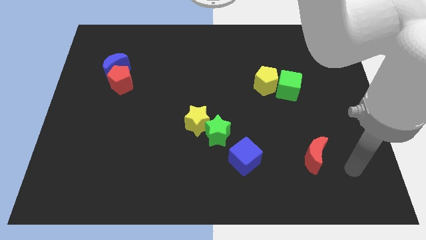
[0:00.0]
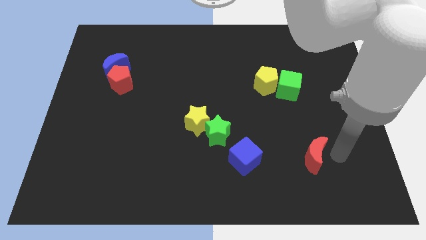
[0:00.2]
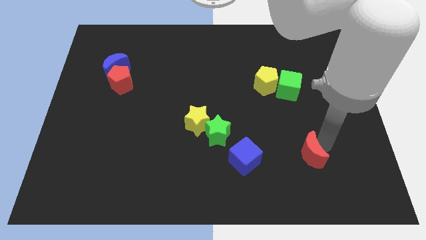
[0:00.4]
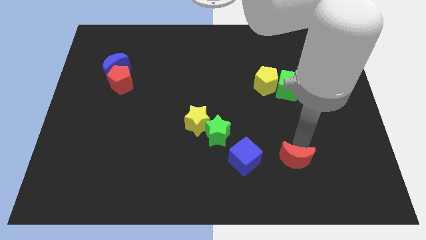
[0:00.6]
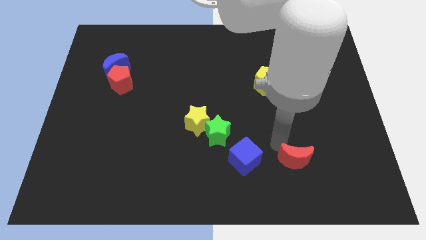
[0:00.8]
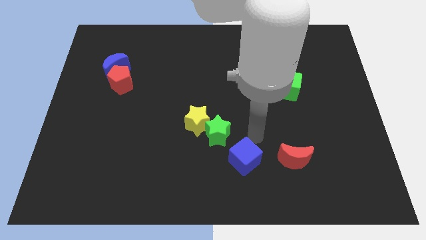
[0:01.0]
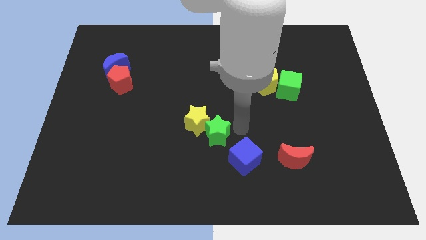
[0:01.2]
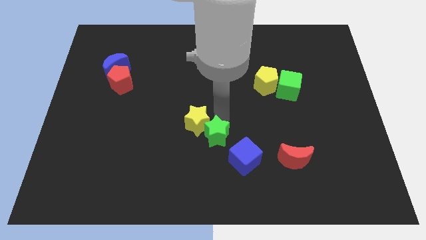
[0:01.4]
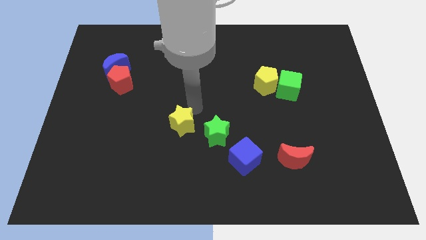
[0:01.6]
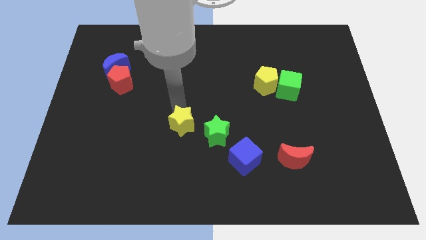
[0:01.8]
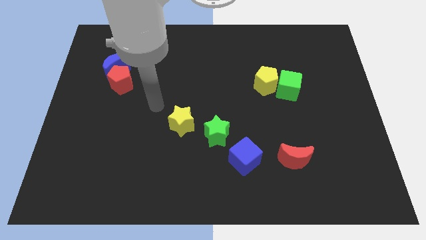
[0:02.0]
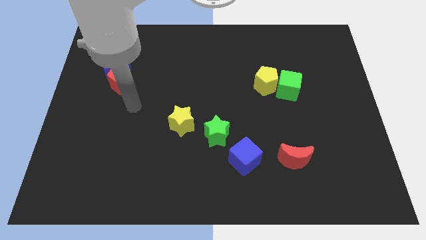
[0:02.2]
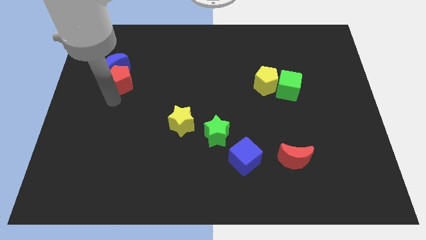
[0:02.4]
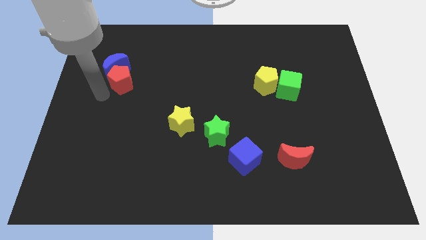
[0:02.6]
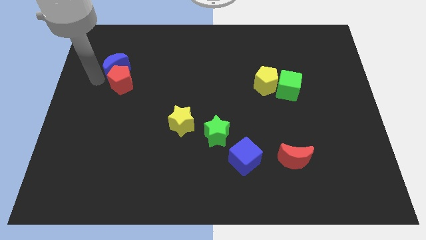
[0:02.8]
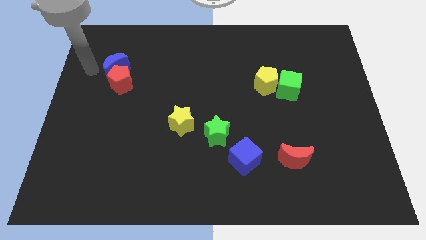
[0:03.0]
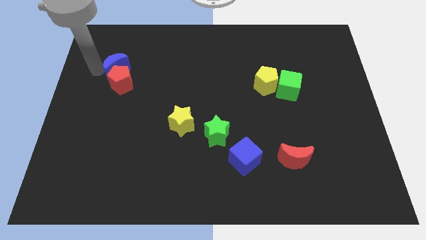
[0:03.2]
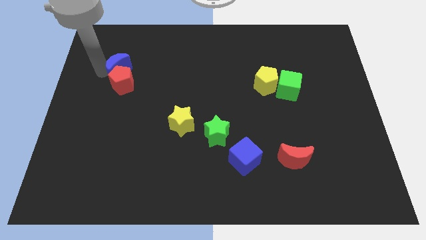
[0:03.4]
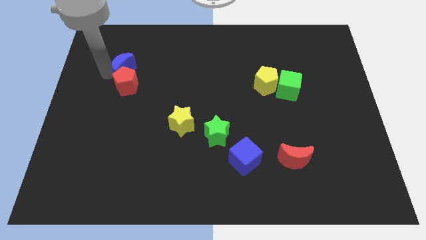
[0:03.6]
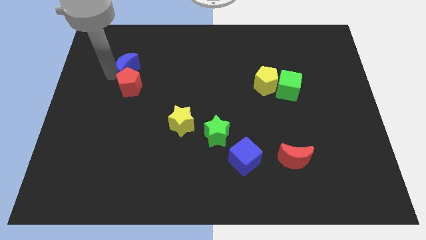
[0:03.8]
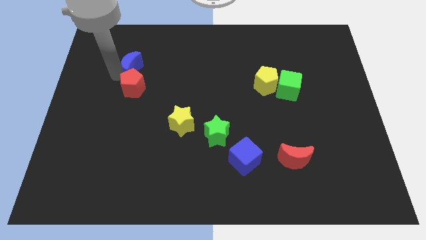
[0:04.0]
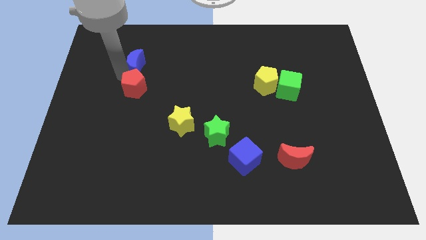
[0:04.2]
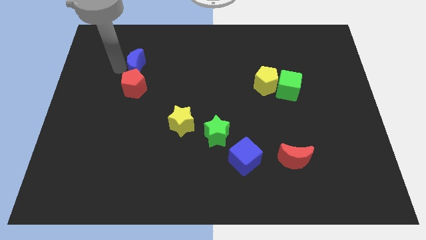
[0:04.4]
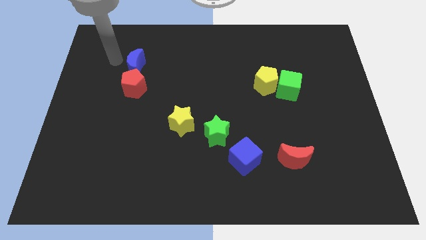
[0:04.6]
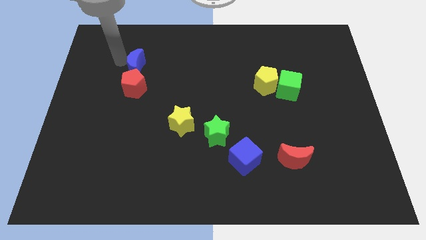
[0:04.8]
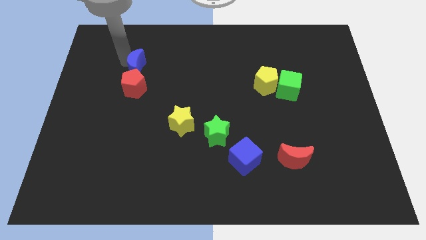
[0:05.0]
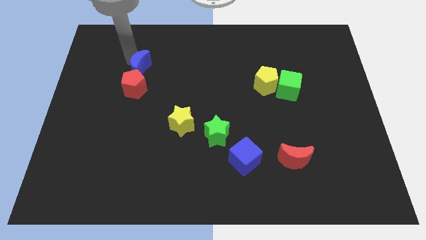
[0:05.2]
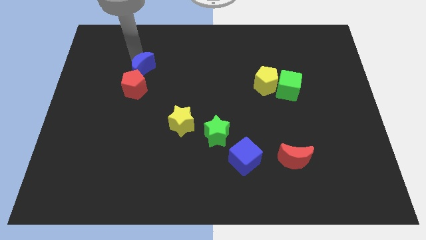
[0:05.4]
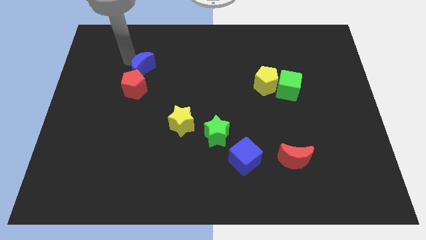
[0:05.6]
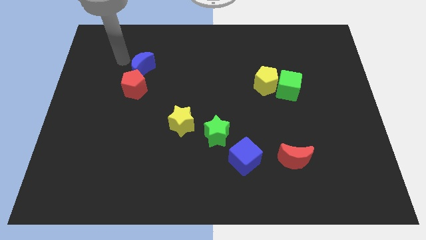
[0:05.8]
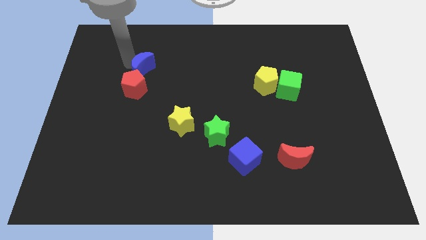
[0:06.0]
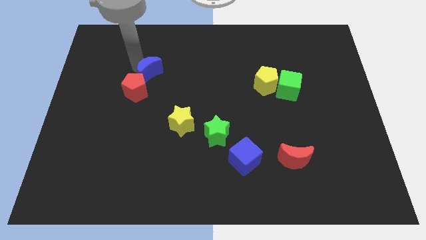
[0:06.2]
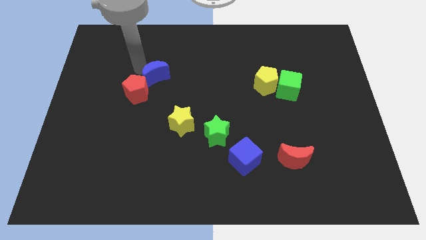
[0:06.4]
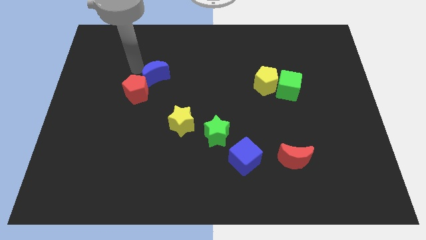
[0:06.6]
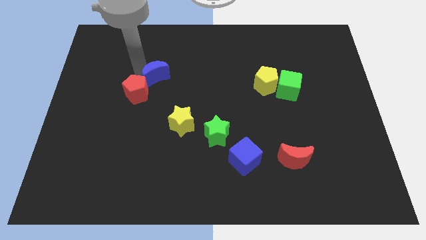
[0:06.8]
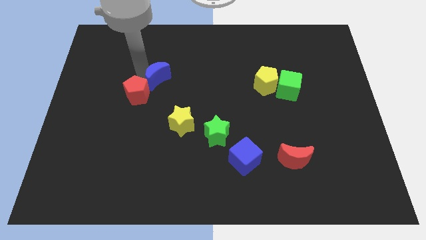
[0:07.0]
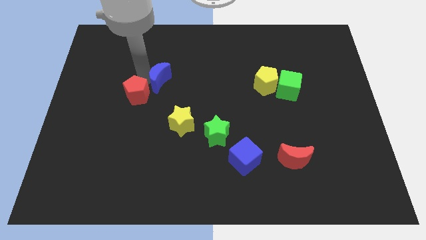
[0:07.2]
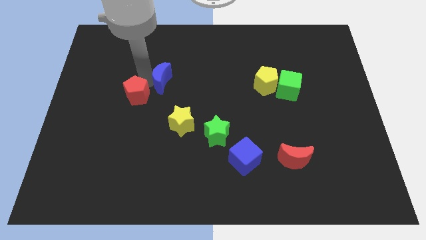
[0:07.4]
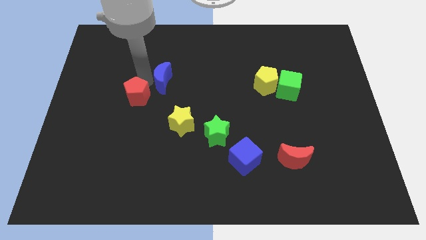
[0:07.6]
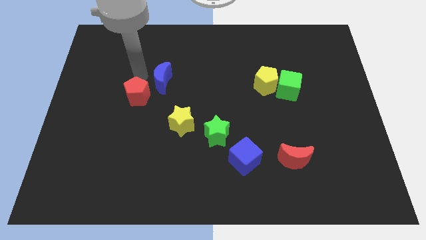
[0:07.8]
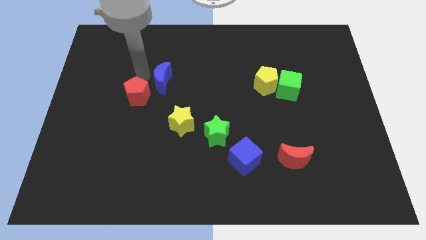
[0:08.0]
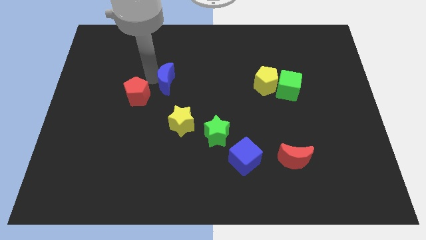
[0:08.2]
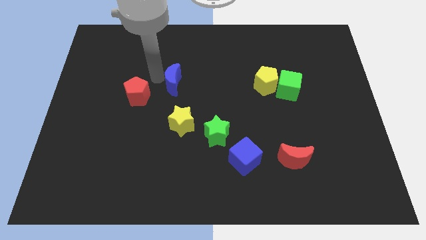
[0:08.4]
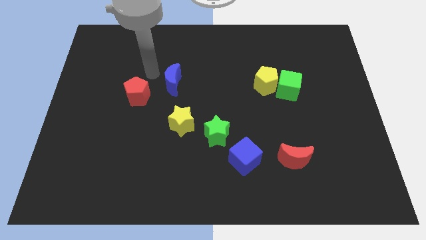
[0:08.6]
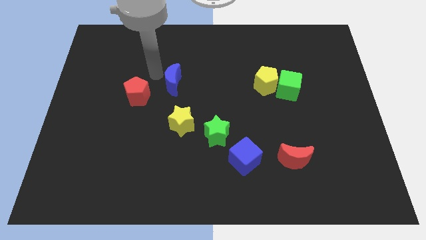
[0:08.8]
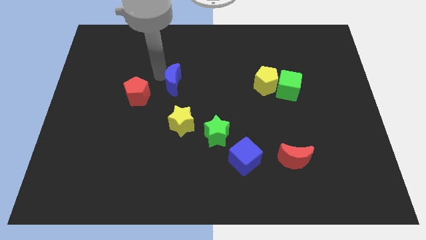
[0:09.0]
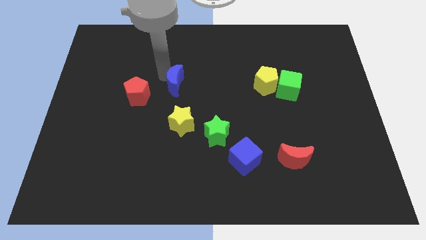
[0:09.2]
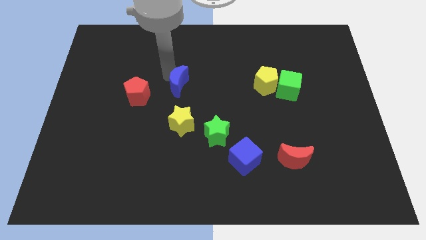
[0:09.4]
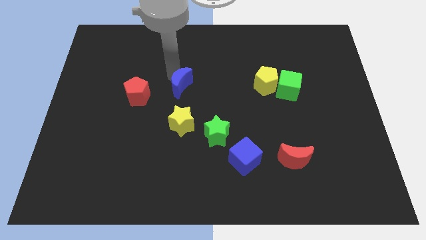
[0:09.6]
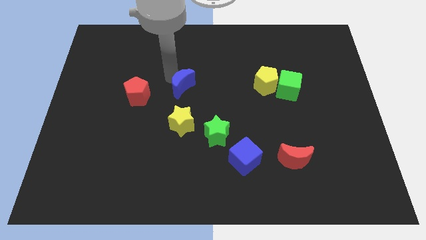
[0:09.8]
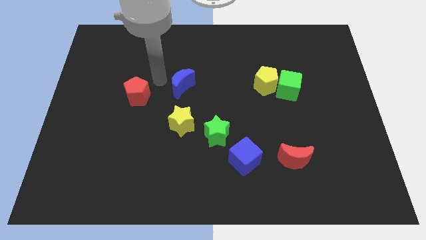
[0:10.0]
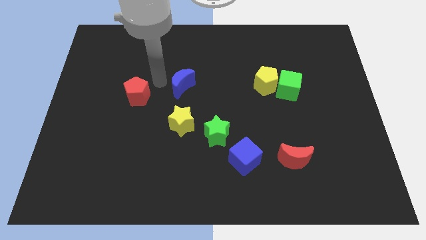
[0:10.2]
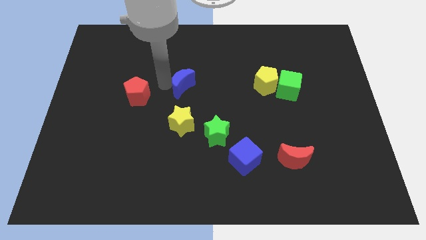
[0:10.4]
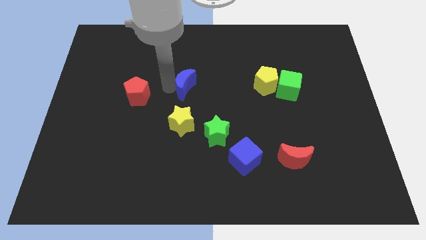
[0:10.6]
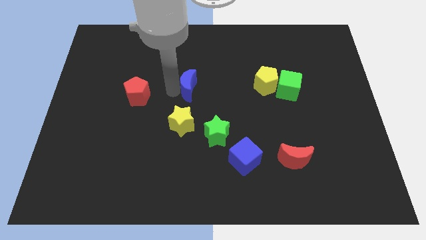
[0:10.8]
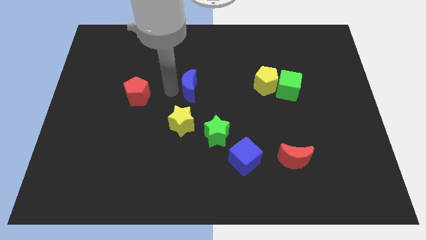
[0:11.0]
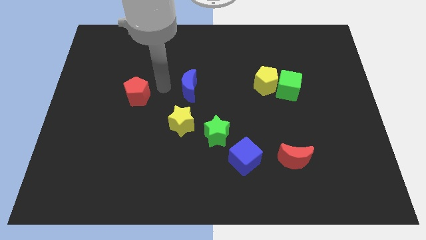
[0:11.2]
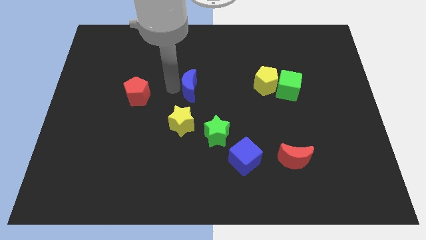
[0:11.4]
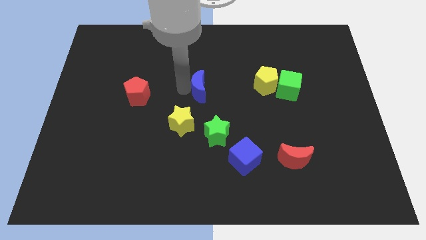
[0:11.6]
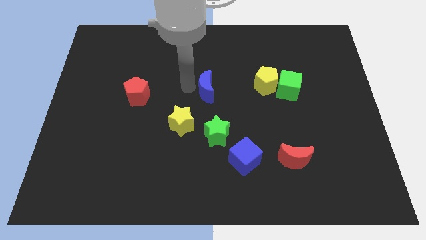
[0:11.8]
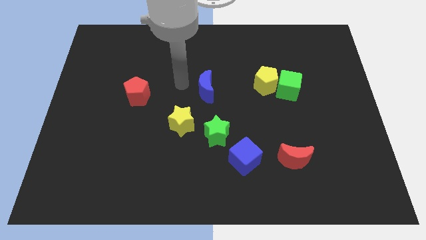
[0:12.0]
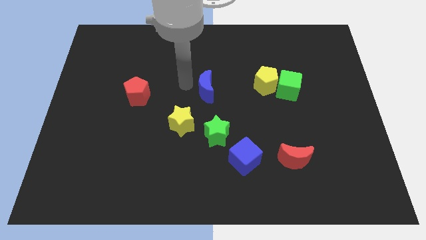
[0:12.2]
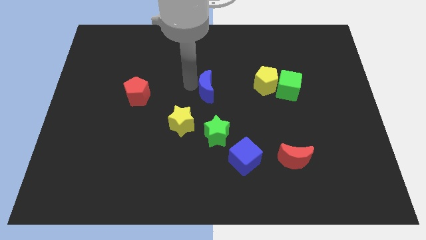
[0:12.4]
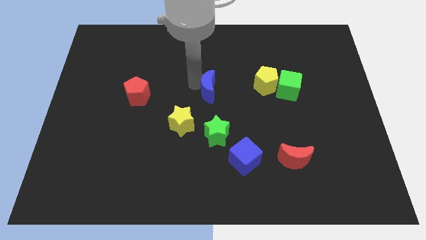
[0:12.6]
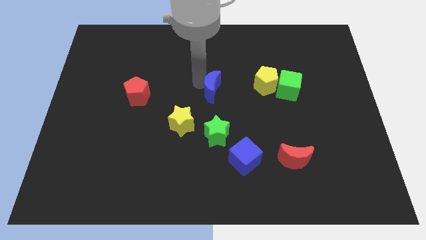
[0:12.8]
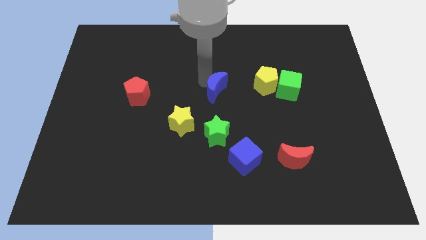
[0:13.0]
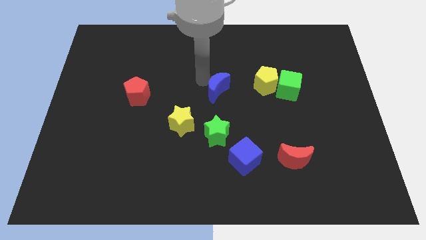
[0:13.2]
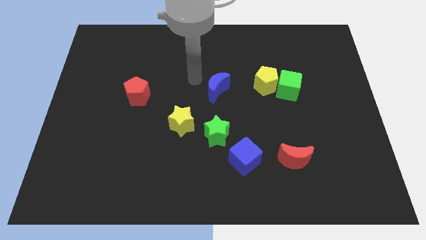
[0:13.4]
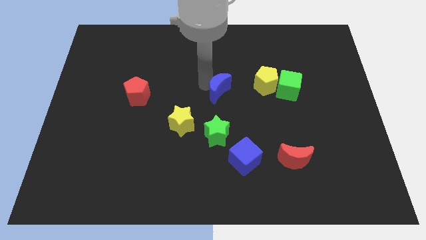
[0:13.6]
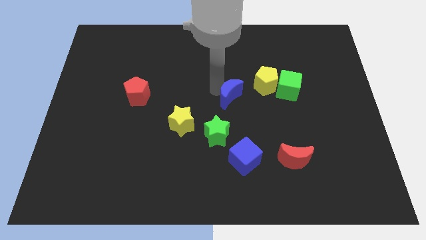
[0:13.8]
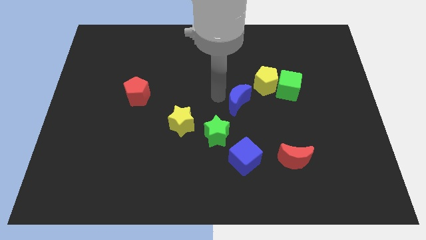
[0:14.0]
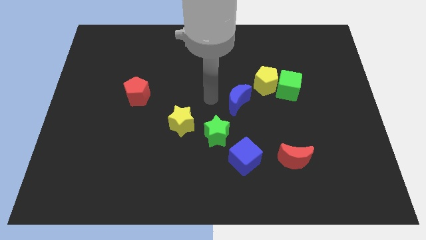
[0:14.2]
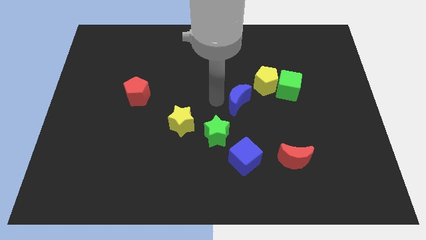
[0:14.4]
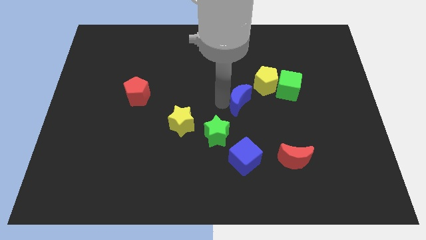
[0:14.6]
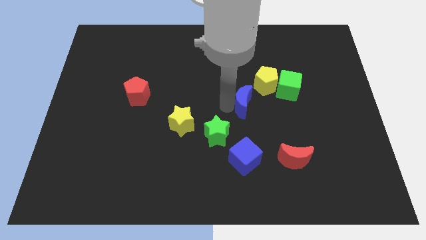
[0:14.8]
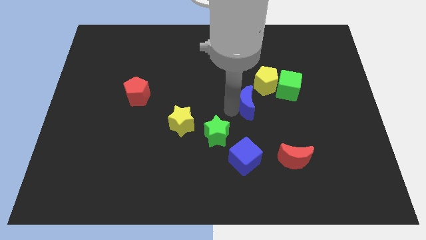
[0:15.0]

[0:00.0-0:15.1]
push the blue moon to the bottom left side of the green cube

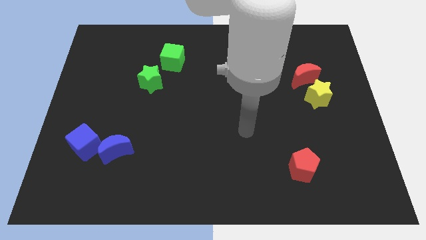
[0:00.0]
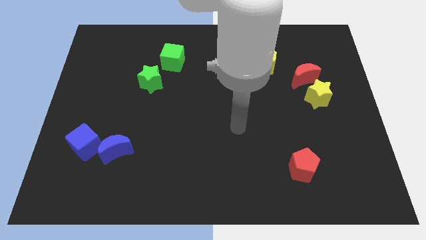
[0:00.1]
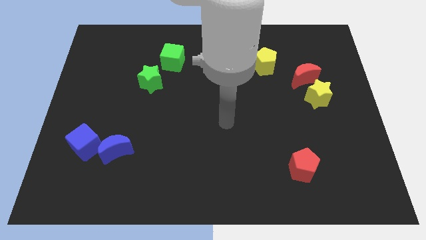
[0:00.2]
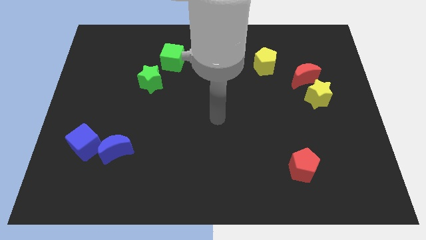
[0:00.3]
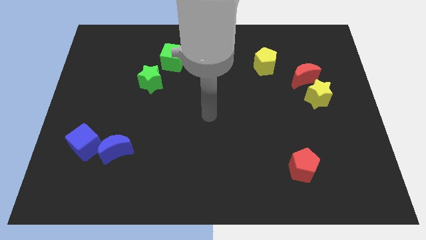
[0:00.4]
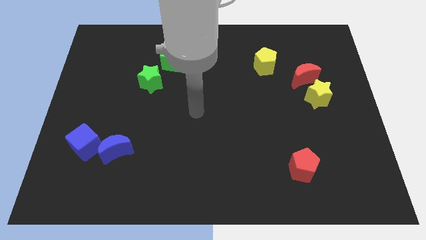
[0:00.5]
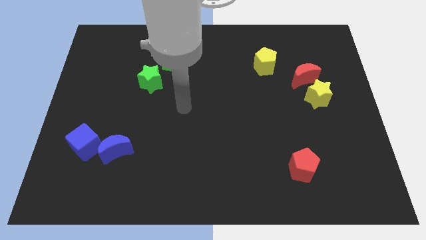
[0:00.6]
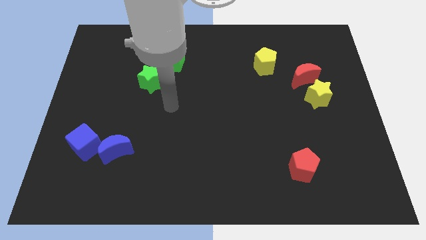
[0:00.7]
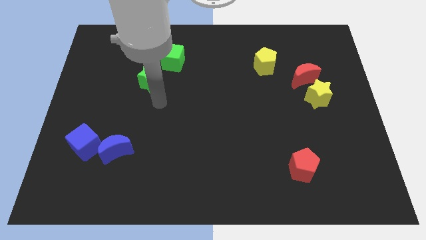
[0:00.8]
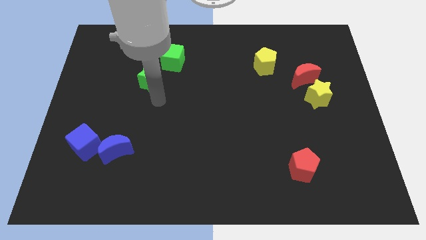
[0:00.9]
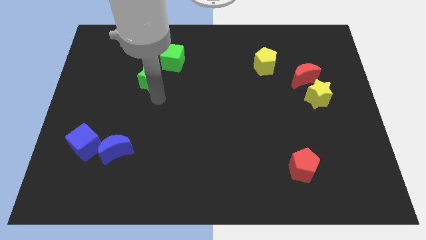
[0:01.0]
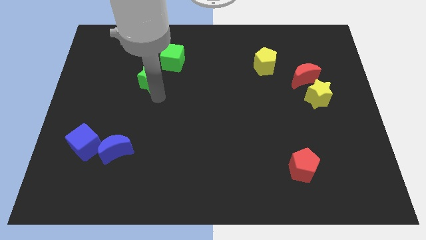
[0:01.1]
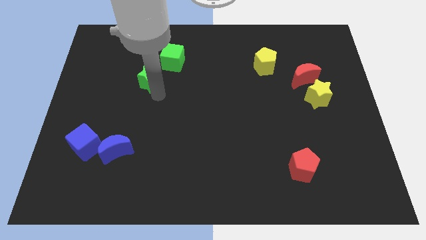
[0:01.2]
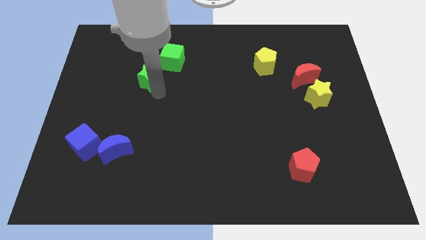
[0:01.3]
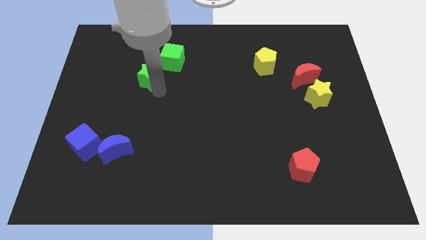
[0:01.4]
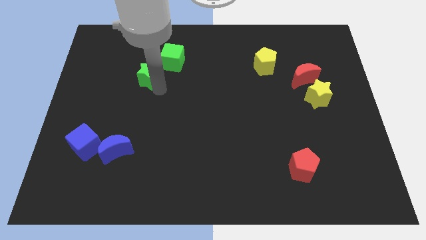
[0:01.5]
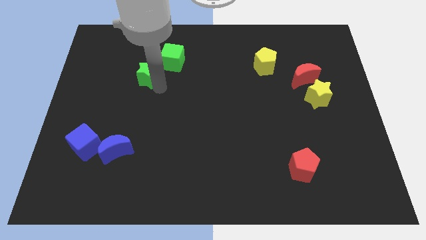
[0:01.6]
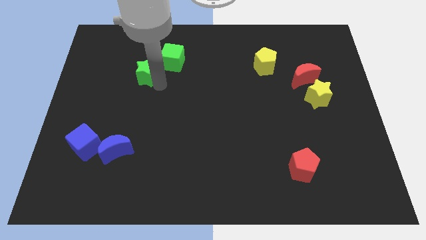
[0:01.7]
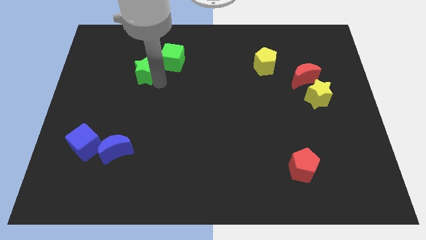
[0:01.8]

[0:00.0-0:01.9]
slide the green star left of the green cube
